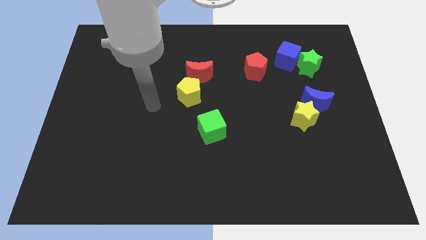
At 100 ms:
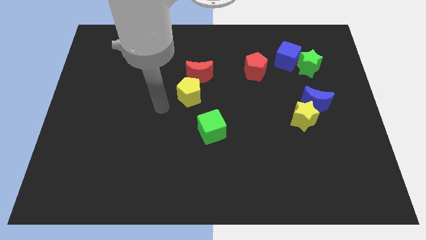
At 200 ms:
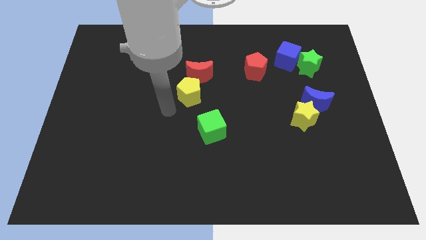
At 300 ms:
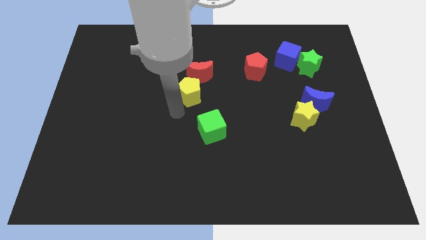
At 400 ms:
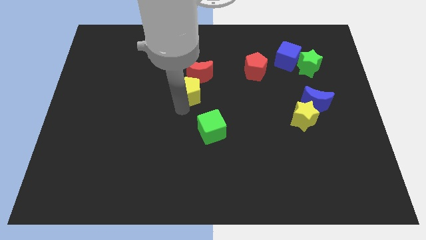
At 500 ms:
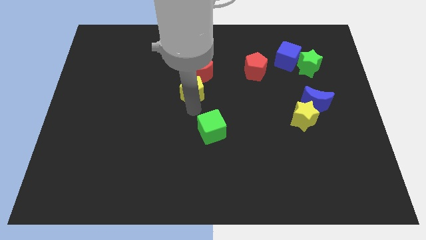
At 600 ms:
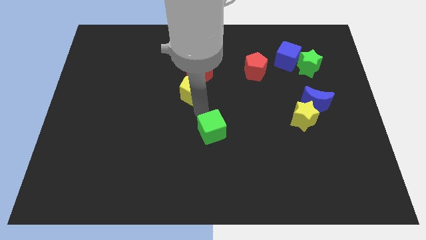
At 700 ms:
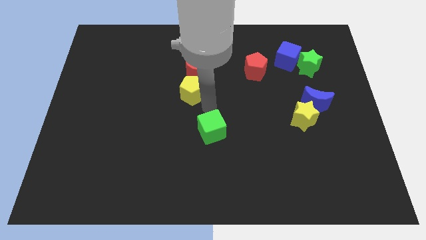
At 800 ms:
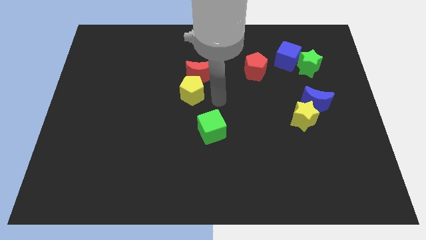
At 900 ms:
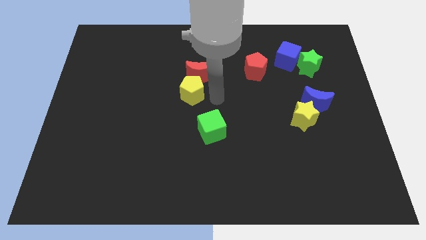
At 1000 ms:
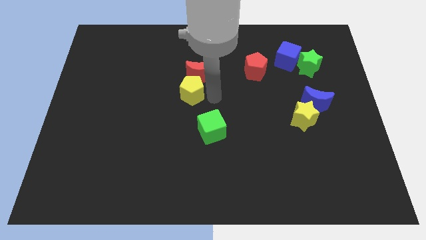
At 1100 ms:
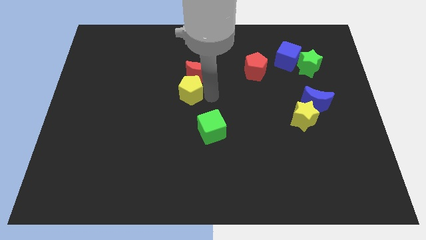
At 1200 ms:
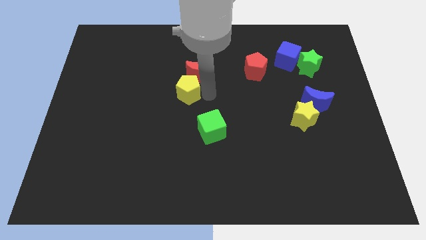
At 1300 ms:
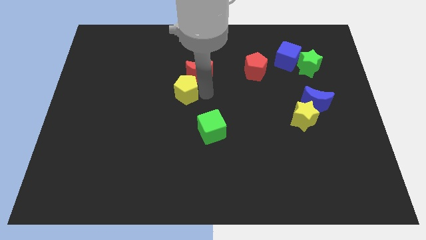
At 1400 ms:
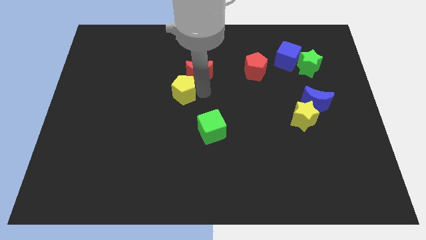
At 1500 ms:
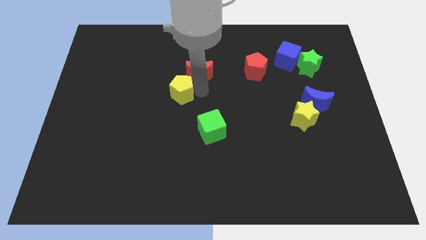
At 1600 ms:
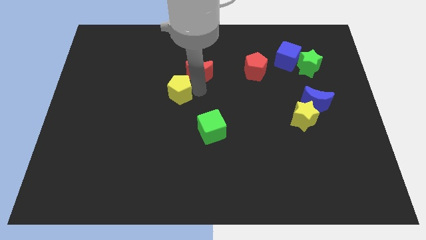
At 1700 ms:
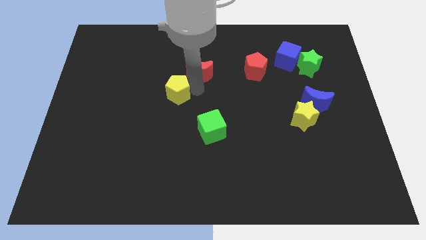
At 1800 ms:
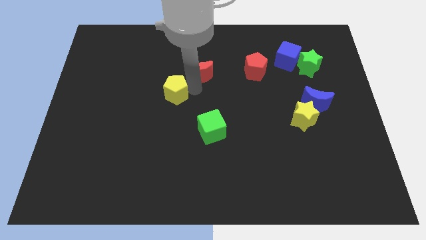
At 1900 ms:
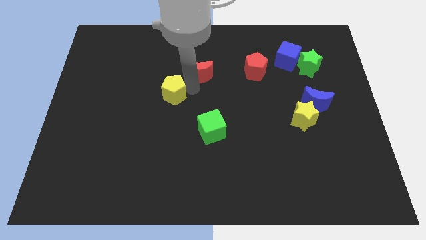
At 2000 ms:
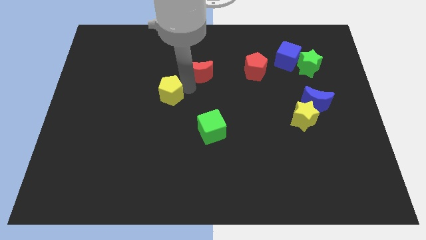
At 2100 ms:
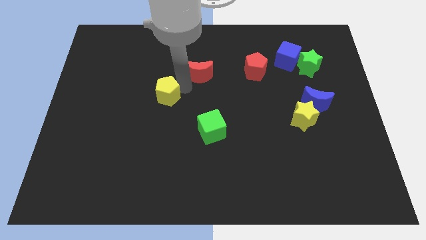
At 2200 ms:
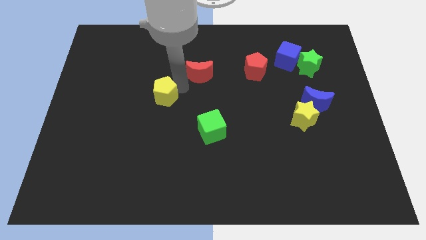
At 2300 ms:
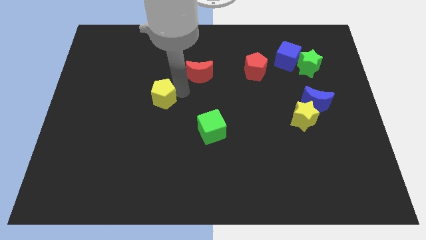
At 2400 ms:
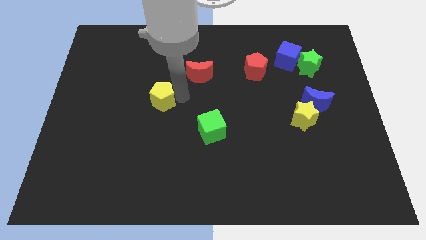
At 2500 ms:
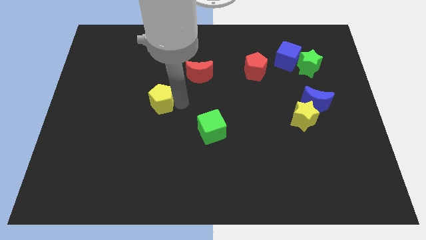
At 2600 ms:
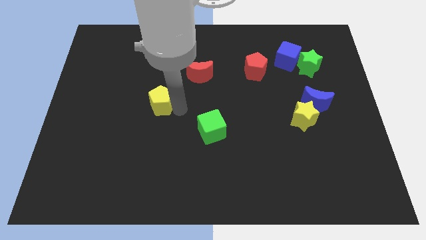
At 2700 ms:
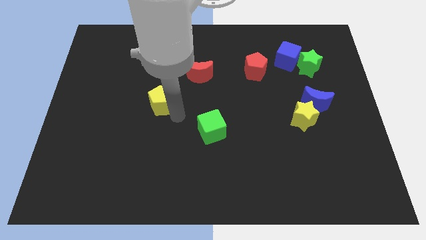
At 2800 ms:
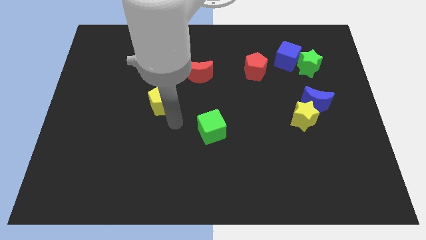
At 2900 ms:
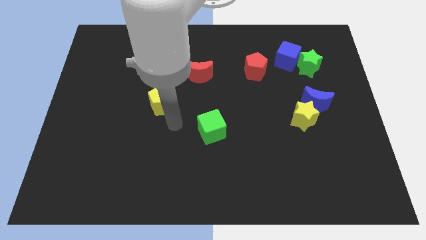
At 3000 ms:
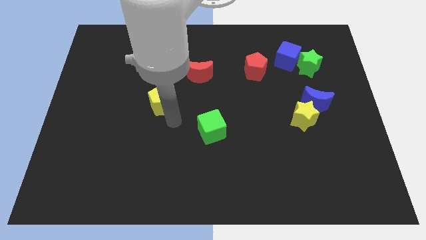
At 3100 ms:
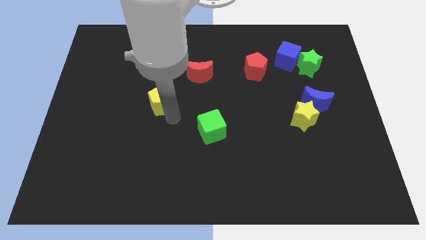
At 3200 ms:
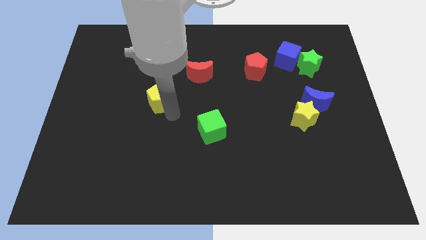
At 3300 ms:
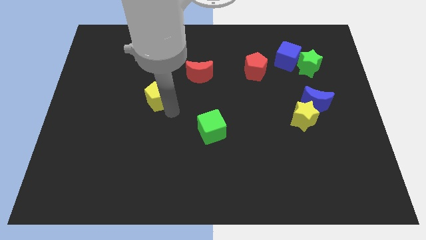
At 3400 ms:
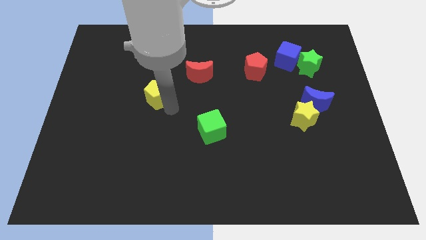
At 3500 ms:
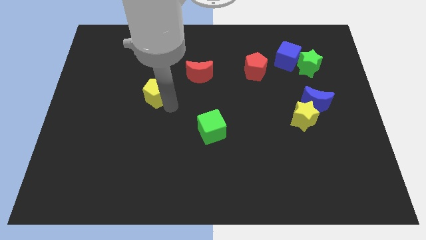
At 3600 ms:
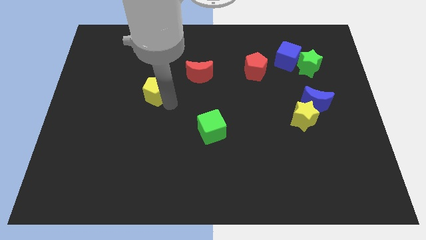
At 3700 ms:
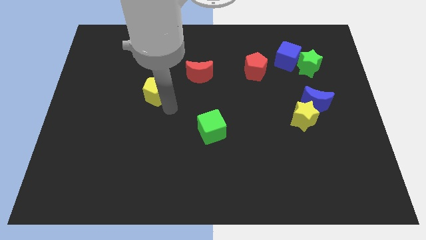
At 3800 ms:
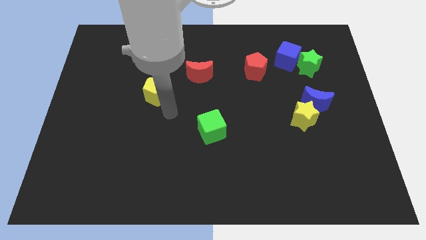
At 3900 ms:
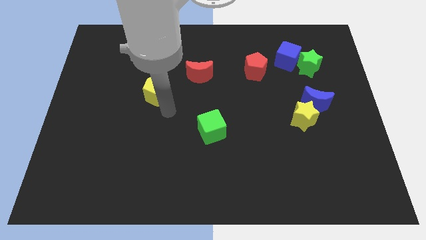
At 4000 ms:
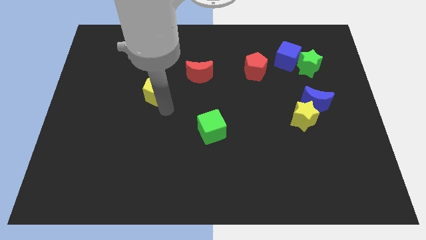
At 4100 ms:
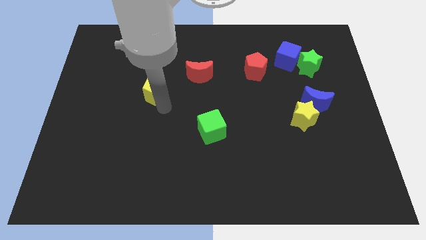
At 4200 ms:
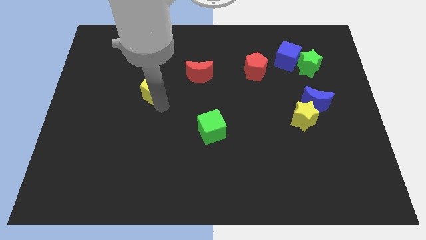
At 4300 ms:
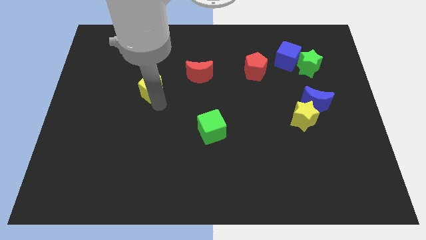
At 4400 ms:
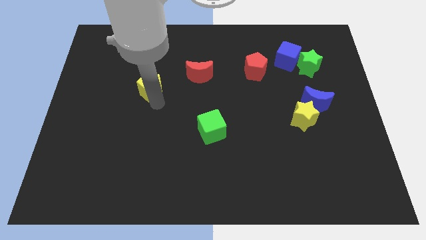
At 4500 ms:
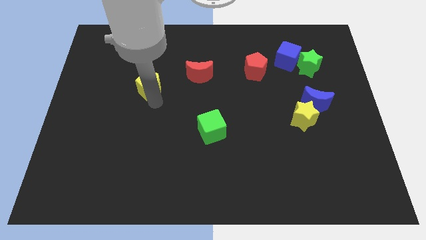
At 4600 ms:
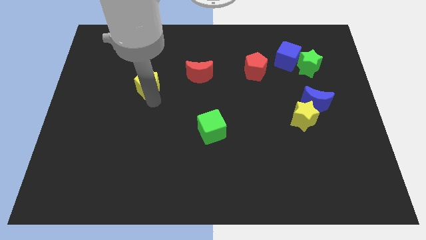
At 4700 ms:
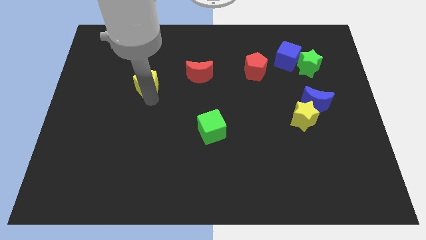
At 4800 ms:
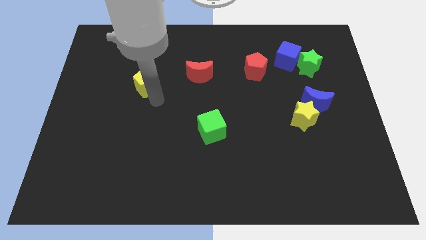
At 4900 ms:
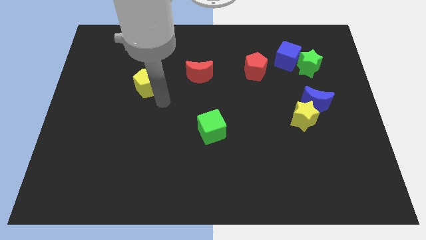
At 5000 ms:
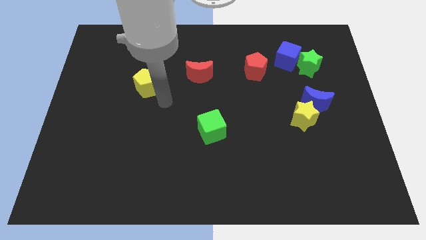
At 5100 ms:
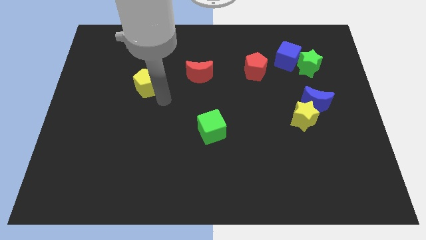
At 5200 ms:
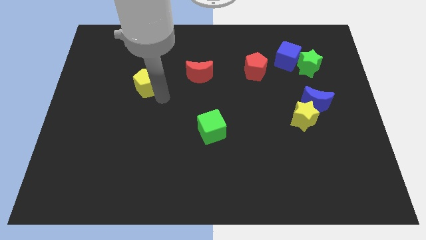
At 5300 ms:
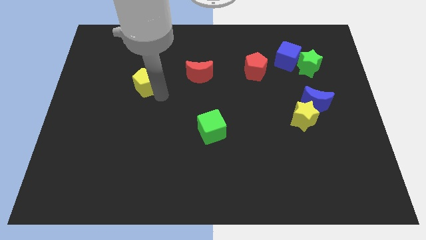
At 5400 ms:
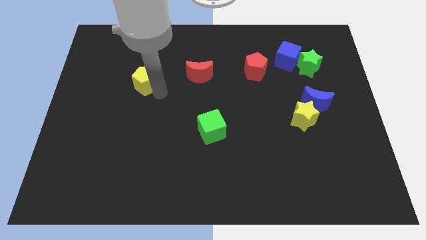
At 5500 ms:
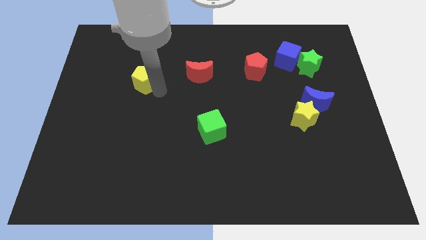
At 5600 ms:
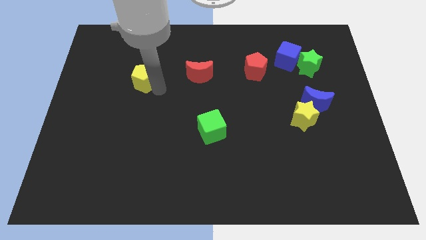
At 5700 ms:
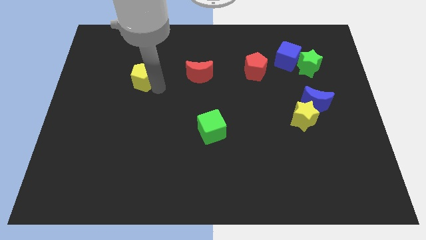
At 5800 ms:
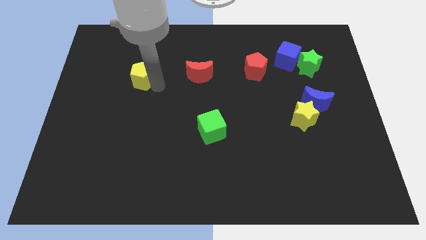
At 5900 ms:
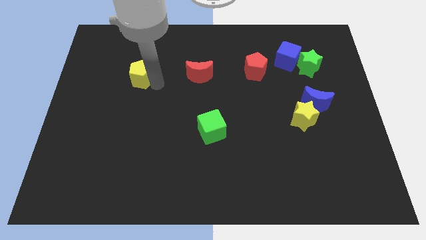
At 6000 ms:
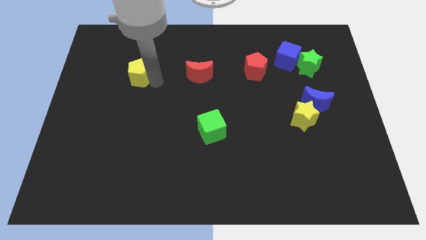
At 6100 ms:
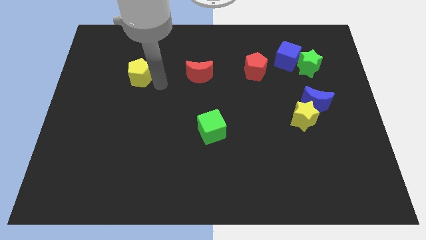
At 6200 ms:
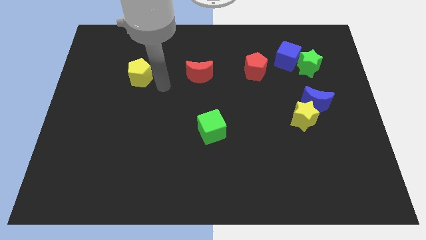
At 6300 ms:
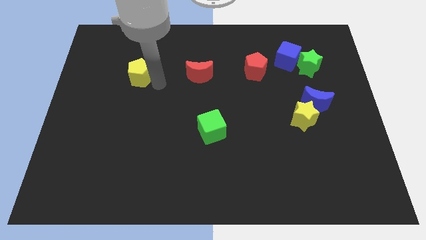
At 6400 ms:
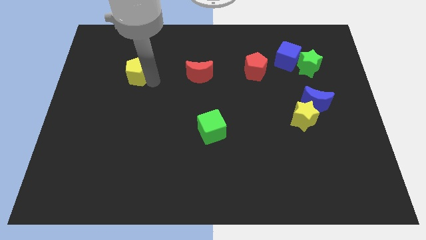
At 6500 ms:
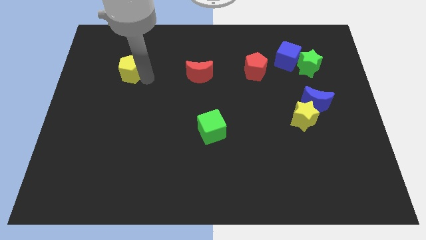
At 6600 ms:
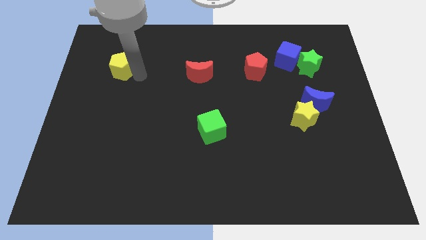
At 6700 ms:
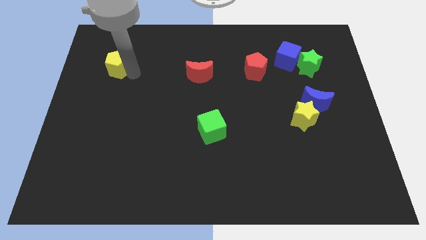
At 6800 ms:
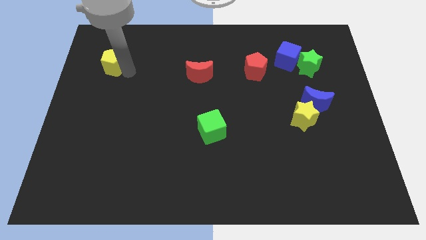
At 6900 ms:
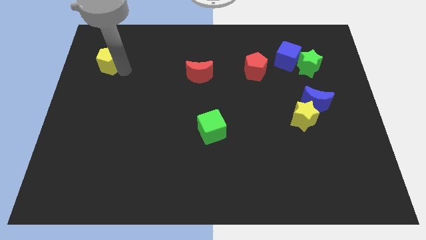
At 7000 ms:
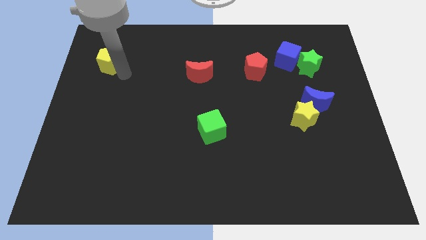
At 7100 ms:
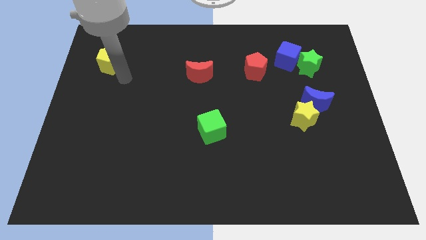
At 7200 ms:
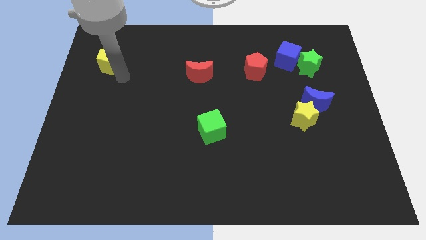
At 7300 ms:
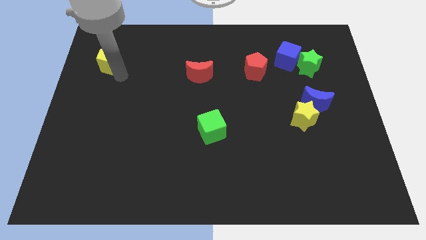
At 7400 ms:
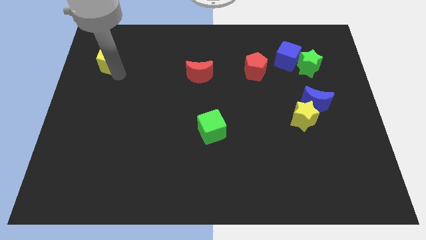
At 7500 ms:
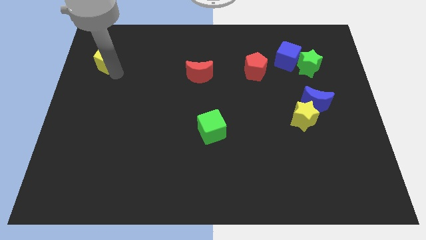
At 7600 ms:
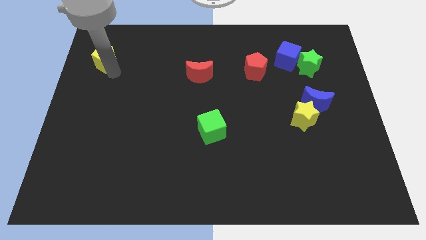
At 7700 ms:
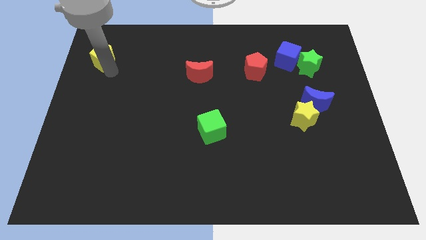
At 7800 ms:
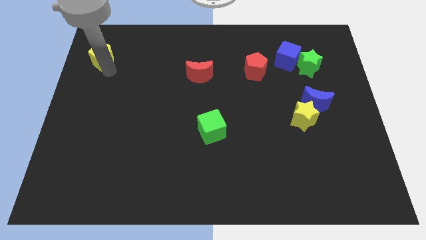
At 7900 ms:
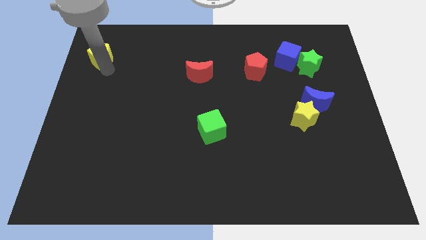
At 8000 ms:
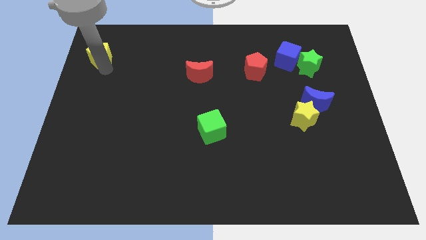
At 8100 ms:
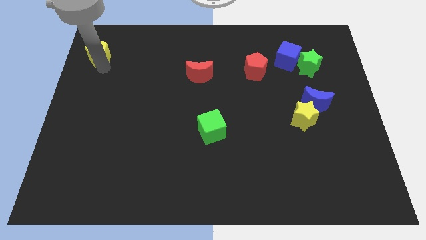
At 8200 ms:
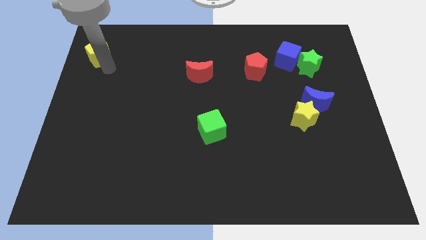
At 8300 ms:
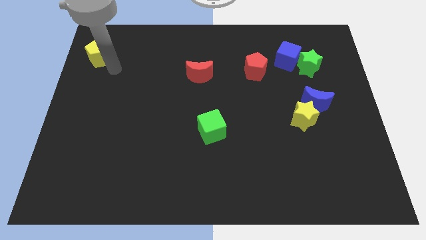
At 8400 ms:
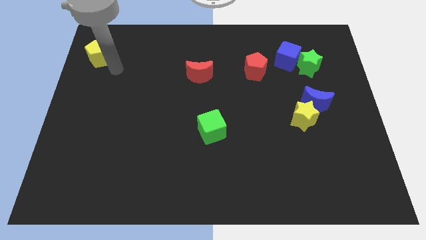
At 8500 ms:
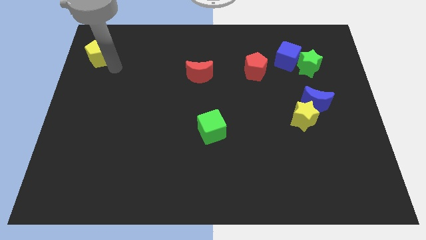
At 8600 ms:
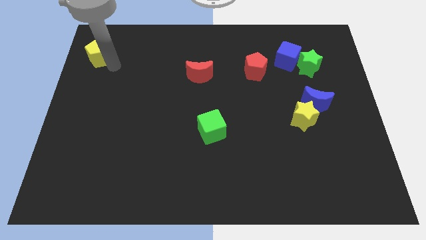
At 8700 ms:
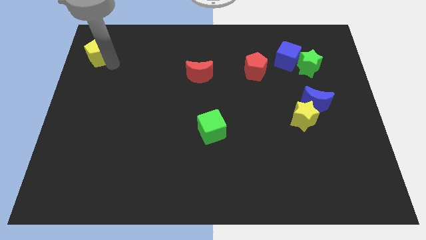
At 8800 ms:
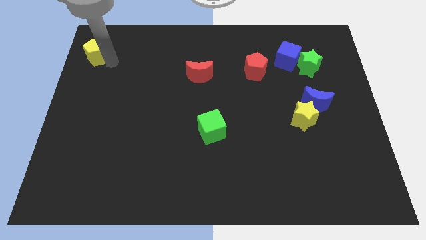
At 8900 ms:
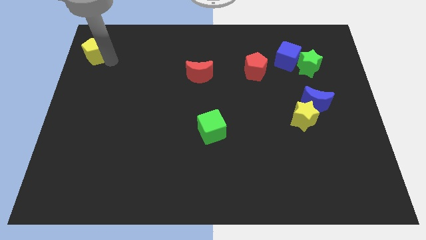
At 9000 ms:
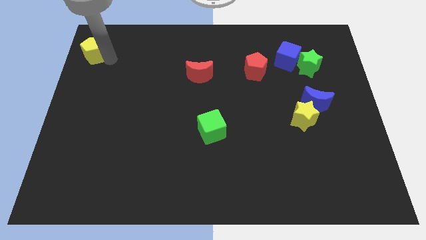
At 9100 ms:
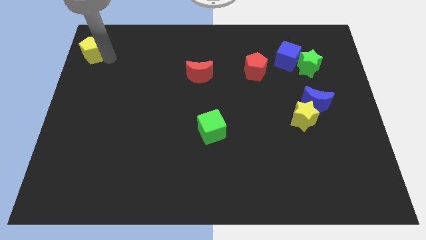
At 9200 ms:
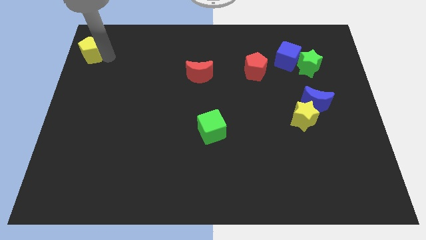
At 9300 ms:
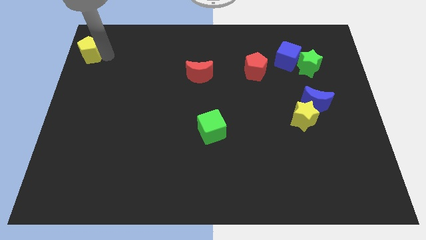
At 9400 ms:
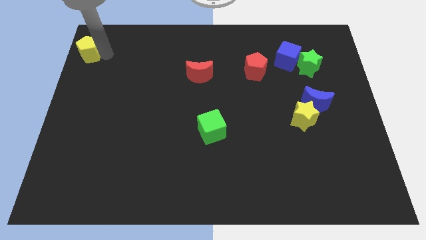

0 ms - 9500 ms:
push the yellow pentagon to the top left of the board
